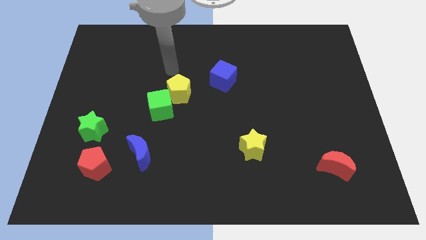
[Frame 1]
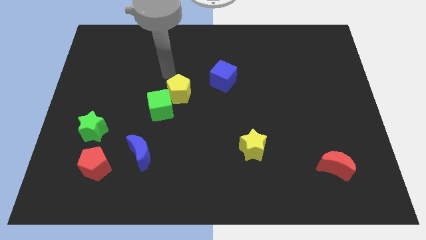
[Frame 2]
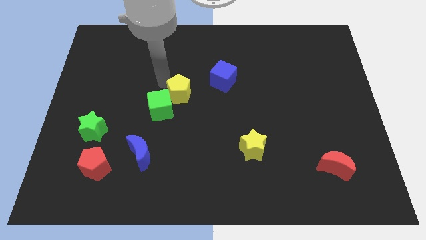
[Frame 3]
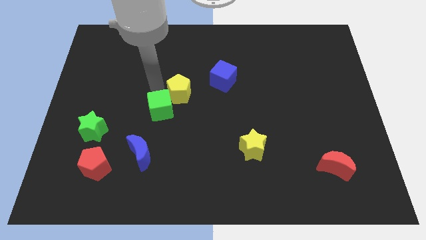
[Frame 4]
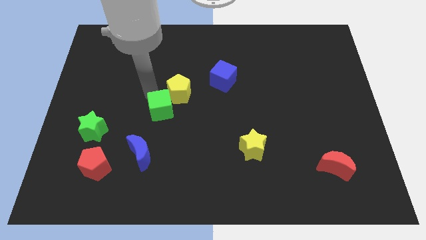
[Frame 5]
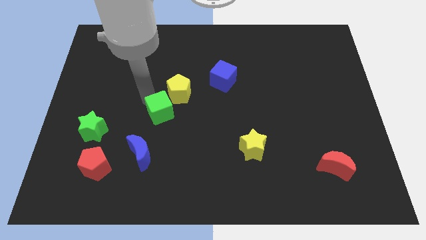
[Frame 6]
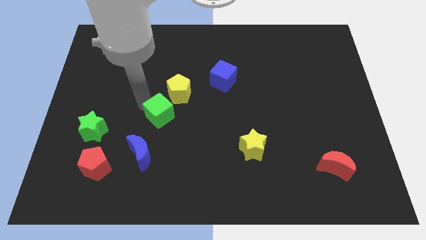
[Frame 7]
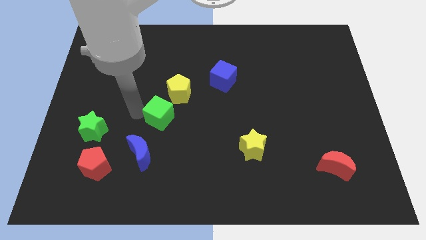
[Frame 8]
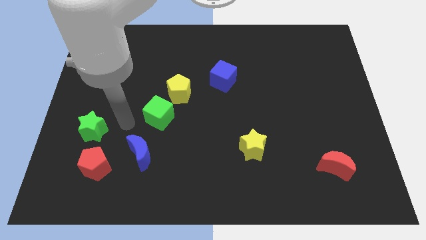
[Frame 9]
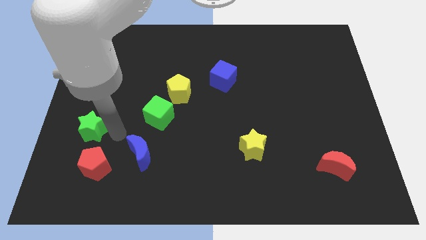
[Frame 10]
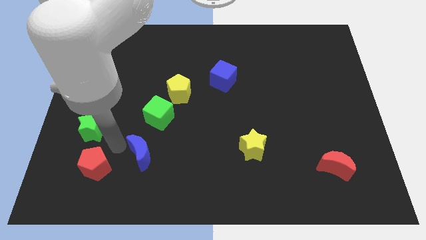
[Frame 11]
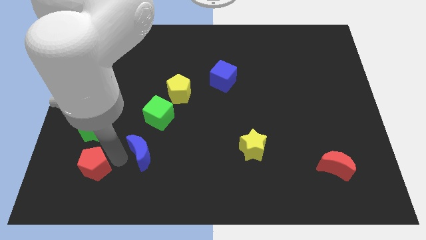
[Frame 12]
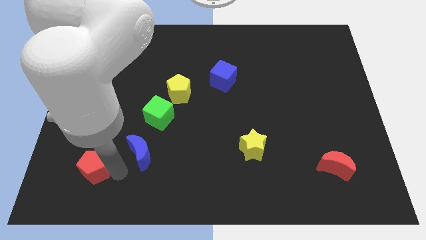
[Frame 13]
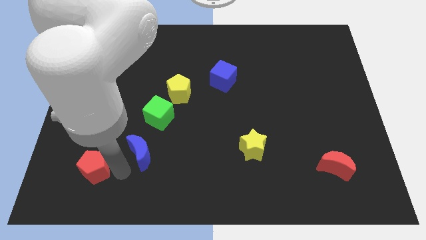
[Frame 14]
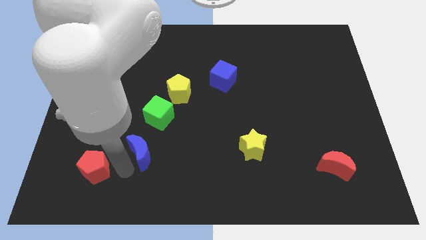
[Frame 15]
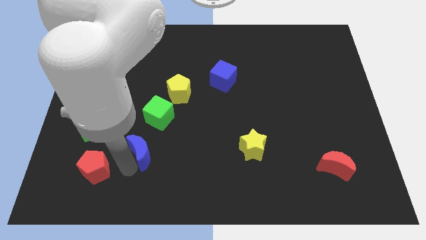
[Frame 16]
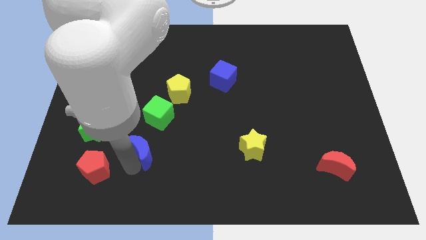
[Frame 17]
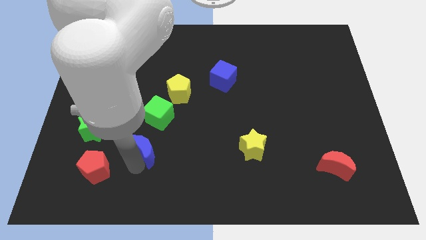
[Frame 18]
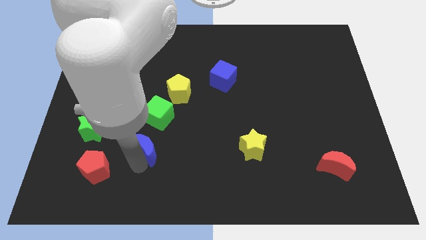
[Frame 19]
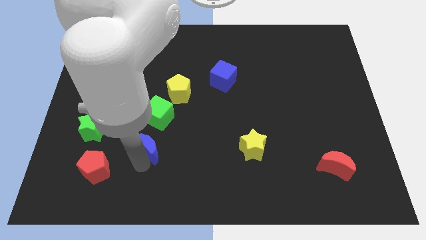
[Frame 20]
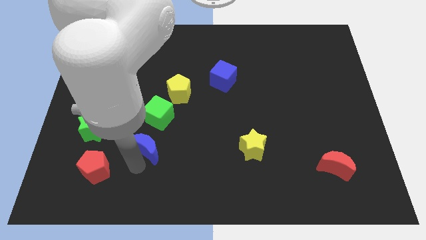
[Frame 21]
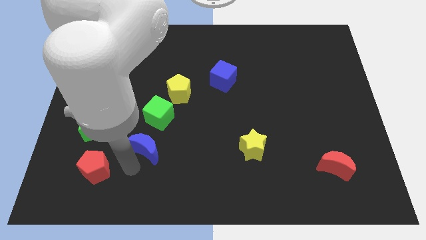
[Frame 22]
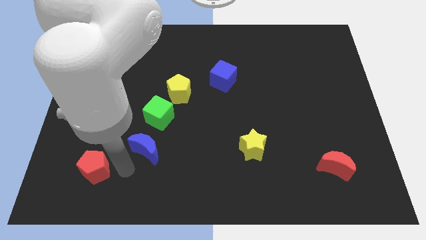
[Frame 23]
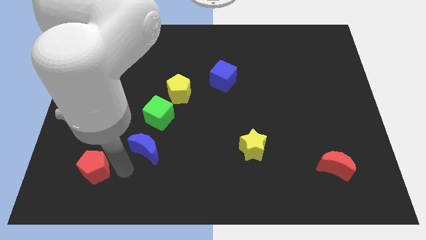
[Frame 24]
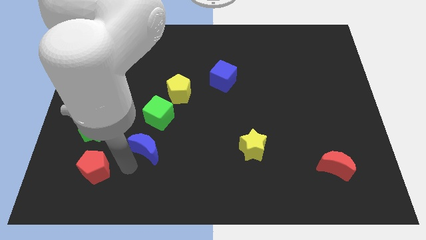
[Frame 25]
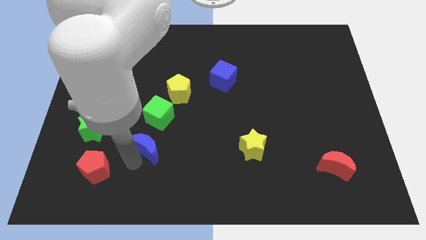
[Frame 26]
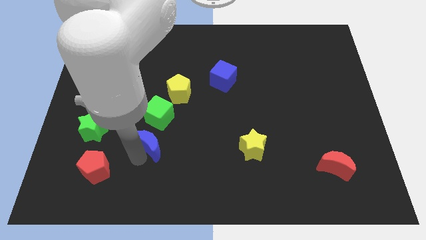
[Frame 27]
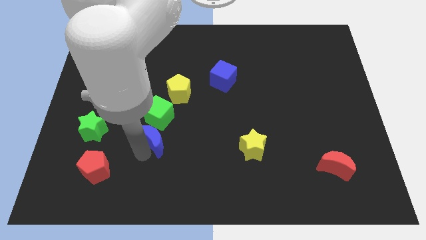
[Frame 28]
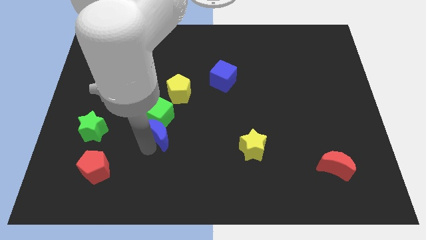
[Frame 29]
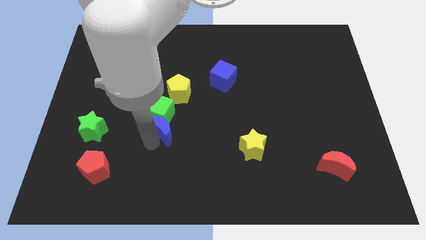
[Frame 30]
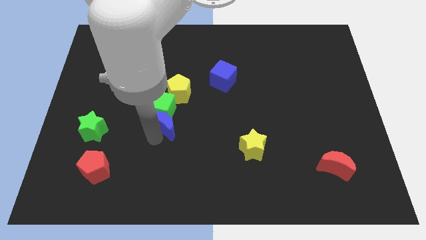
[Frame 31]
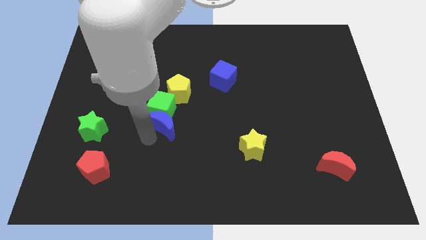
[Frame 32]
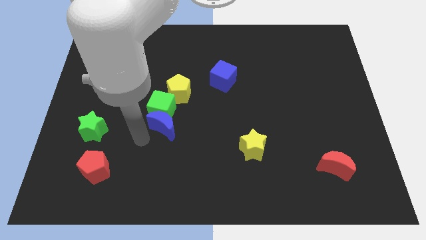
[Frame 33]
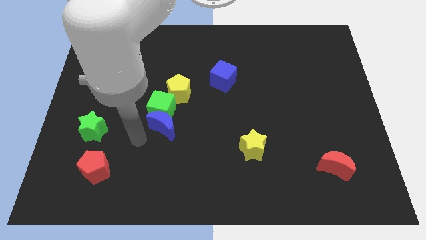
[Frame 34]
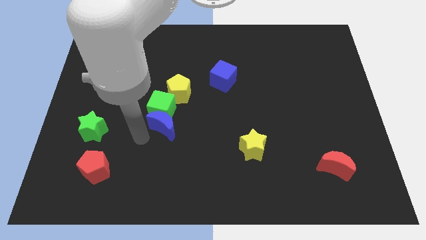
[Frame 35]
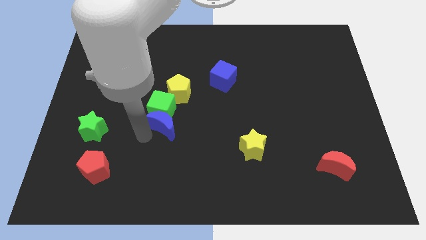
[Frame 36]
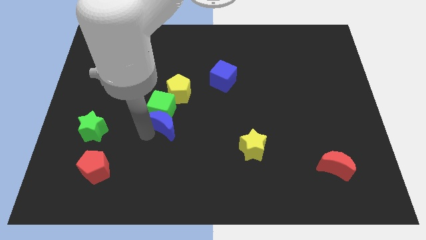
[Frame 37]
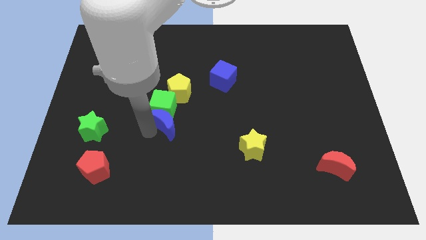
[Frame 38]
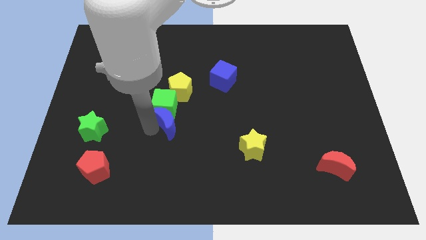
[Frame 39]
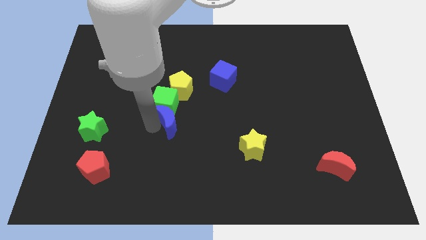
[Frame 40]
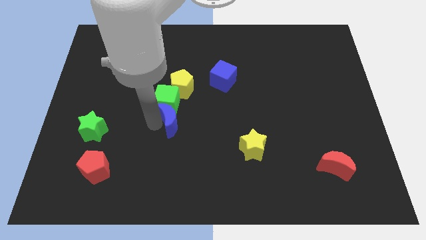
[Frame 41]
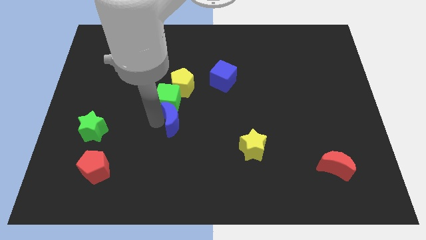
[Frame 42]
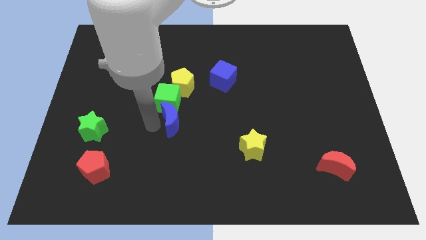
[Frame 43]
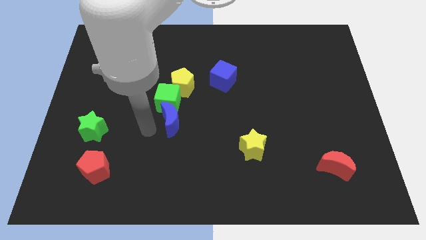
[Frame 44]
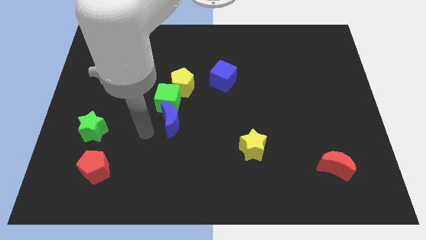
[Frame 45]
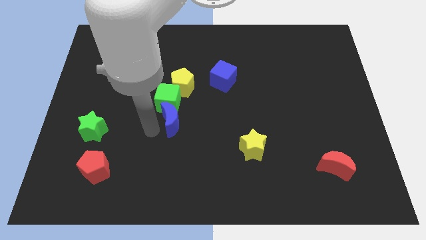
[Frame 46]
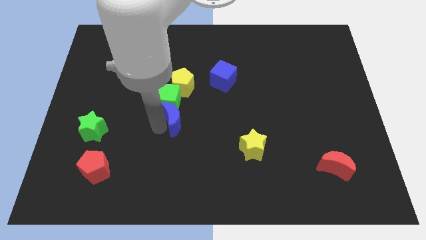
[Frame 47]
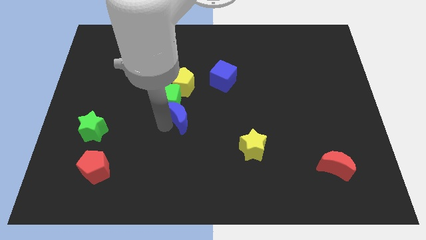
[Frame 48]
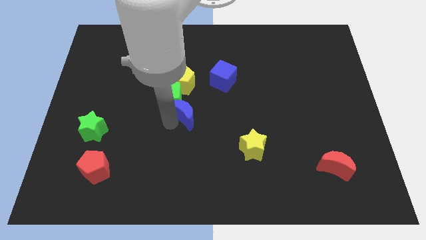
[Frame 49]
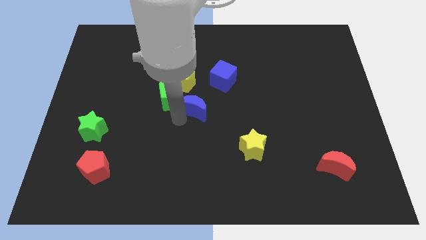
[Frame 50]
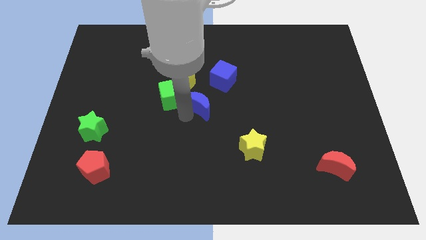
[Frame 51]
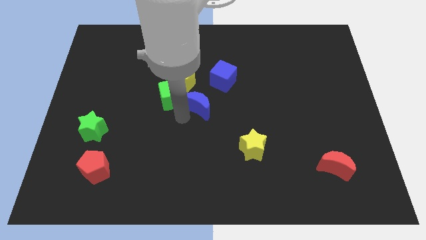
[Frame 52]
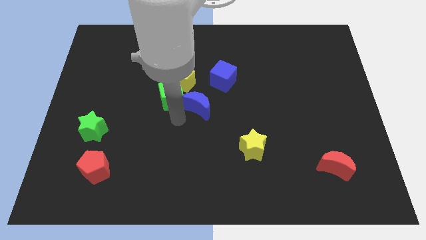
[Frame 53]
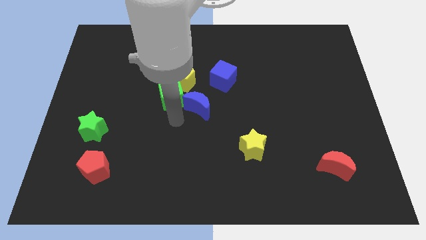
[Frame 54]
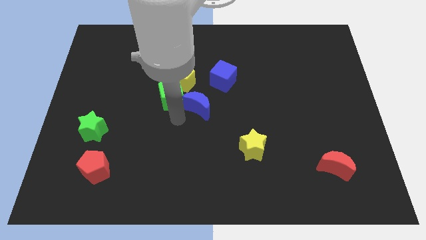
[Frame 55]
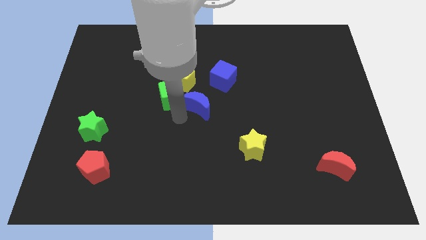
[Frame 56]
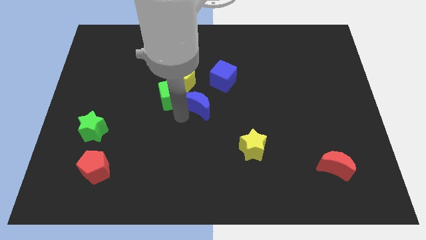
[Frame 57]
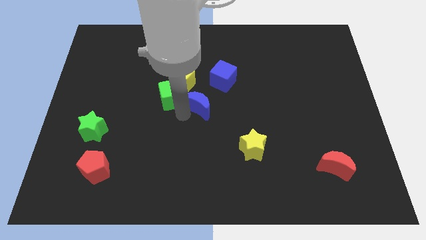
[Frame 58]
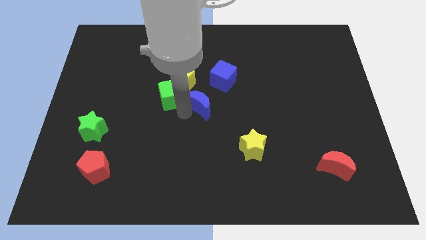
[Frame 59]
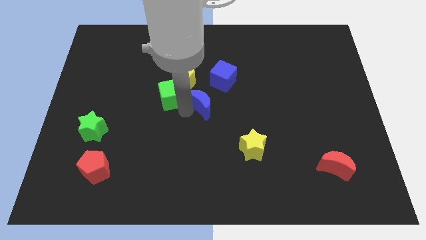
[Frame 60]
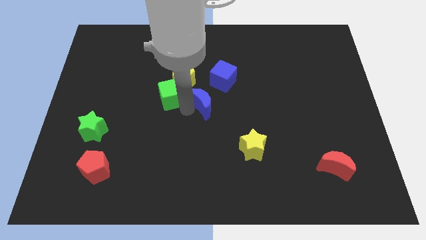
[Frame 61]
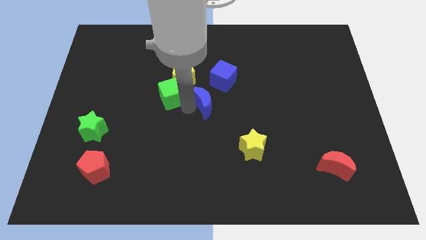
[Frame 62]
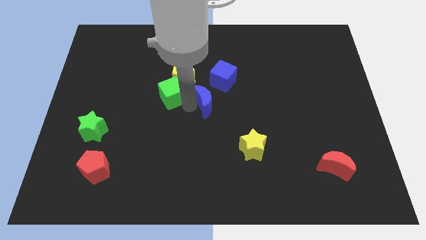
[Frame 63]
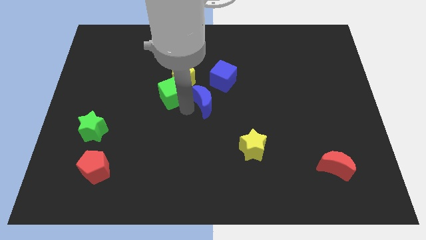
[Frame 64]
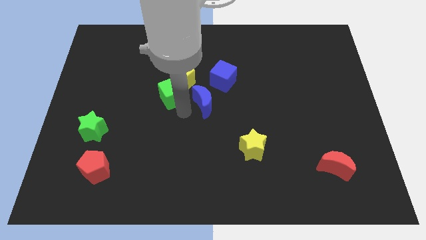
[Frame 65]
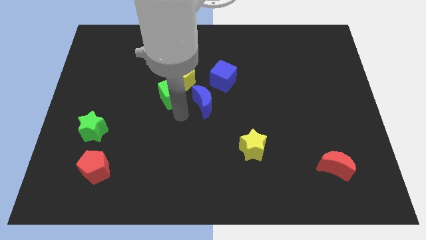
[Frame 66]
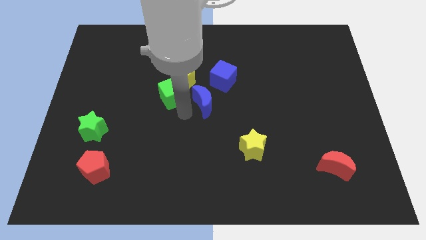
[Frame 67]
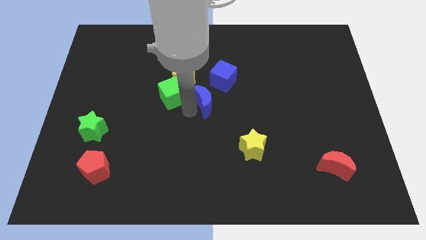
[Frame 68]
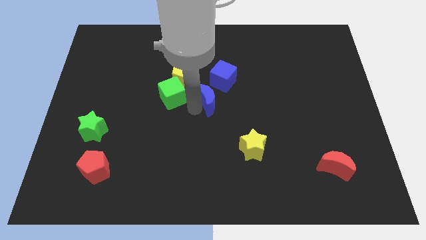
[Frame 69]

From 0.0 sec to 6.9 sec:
push the blue moon up and to the right

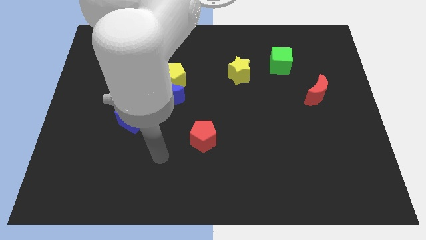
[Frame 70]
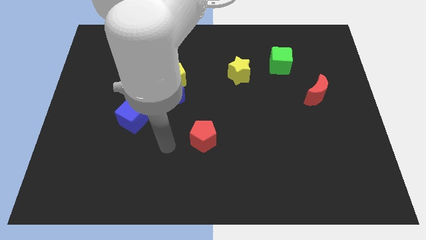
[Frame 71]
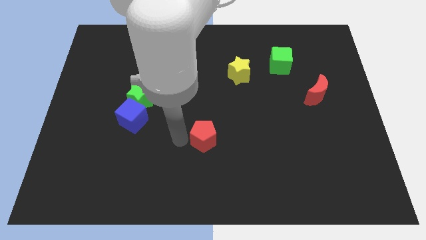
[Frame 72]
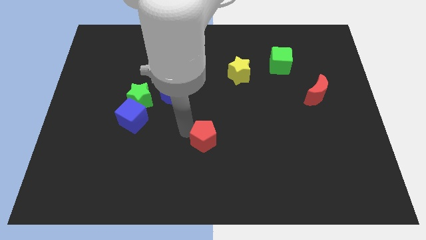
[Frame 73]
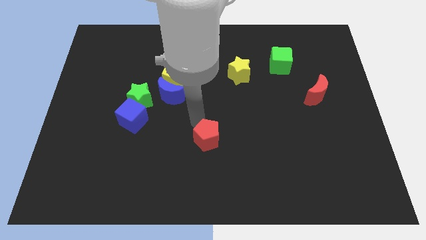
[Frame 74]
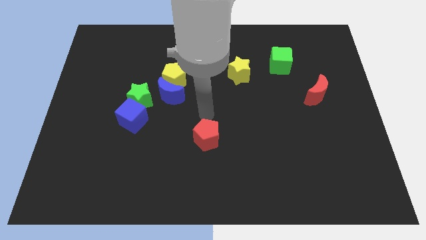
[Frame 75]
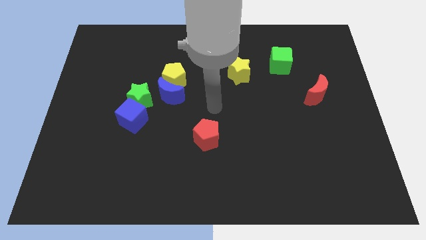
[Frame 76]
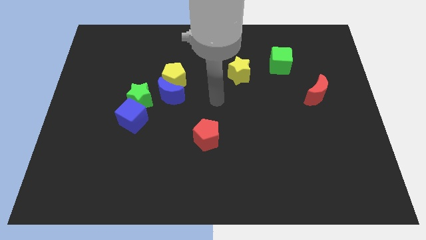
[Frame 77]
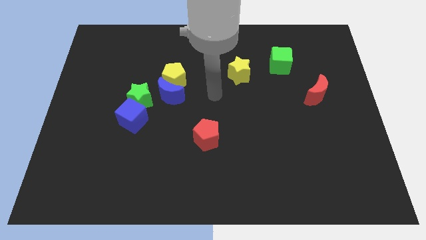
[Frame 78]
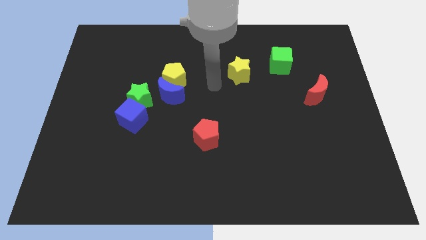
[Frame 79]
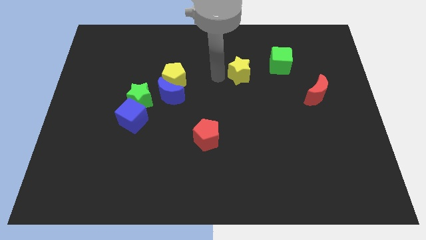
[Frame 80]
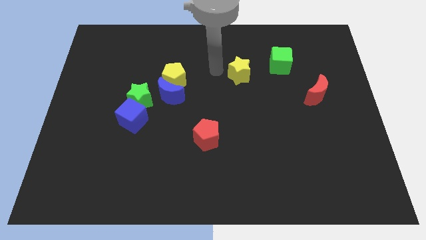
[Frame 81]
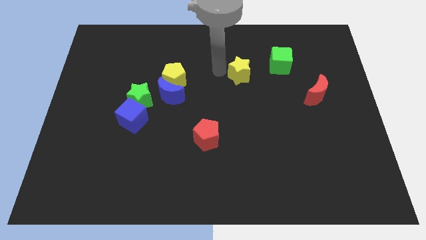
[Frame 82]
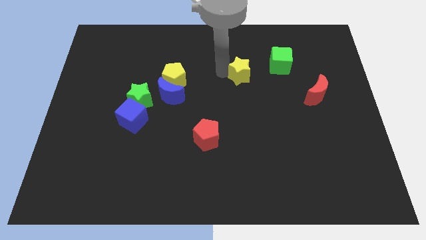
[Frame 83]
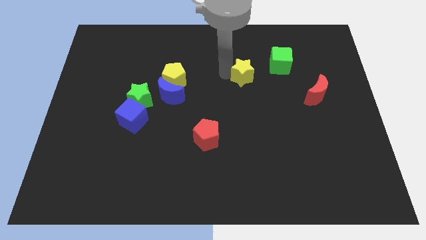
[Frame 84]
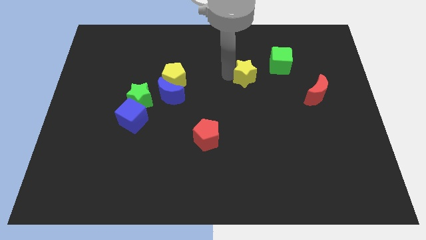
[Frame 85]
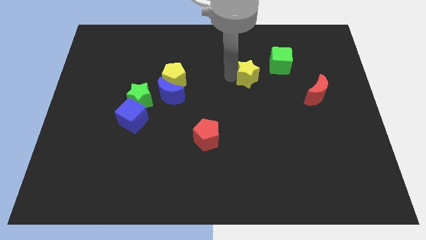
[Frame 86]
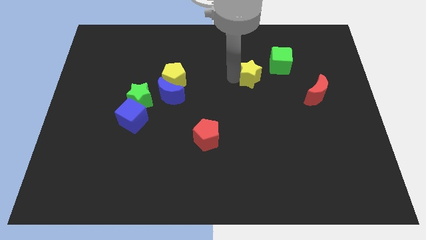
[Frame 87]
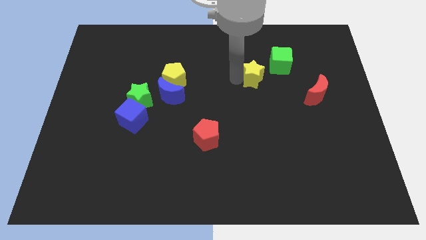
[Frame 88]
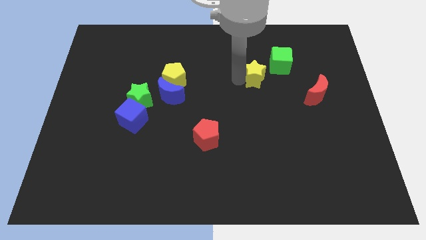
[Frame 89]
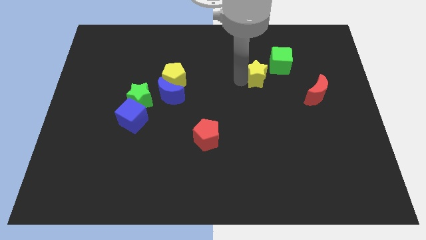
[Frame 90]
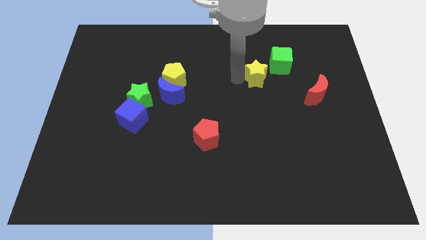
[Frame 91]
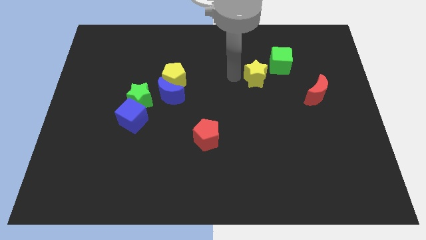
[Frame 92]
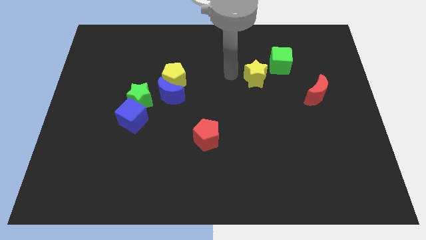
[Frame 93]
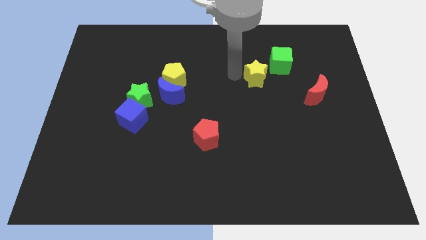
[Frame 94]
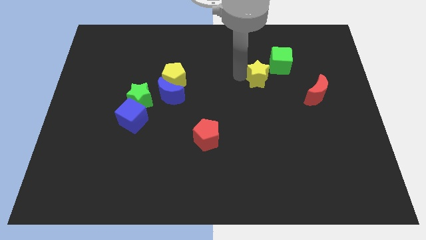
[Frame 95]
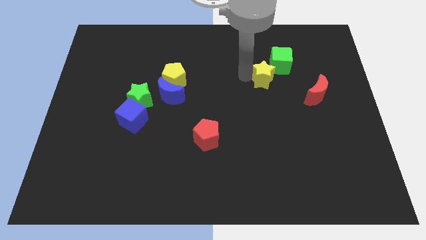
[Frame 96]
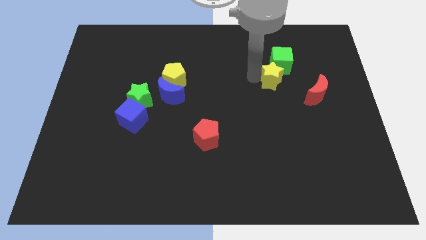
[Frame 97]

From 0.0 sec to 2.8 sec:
slightly push the yellow star right
